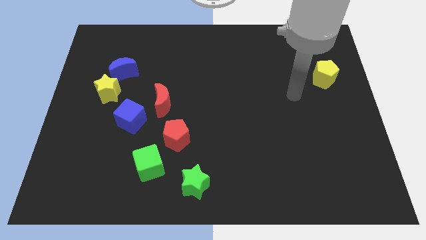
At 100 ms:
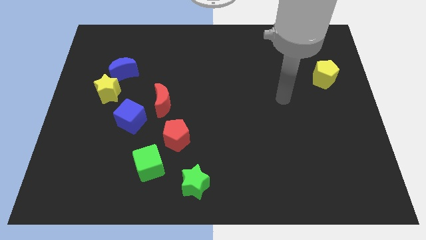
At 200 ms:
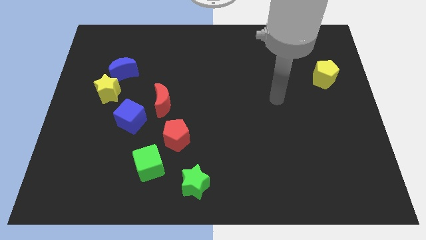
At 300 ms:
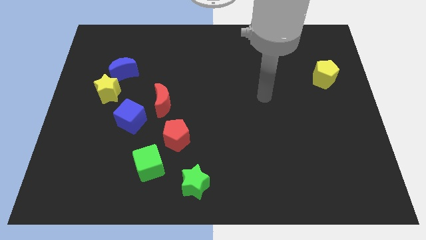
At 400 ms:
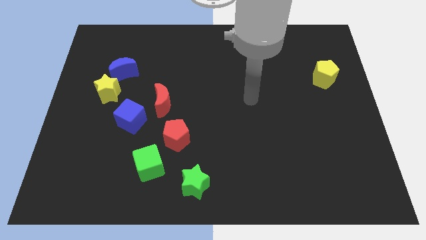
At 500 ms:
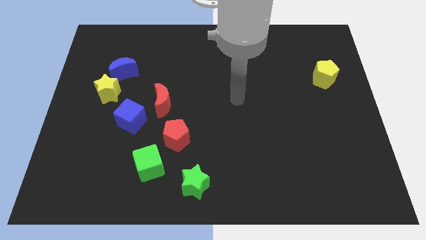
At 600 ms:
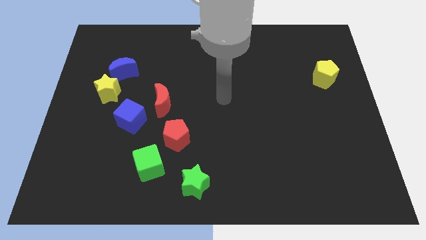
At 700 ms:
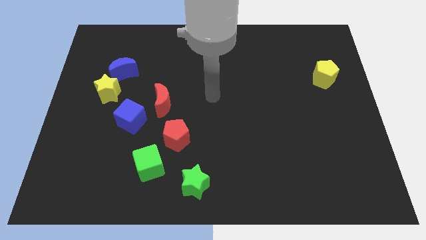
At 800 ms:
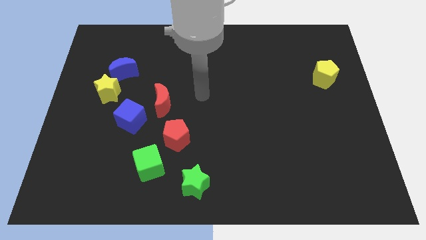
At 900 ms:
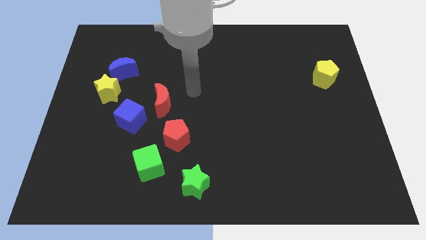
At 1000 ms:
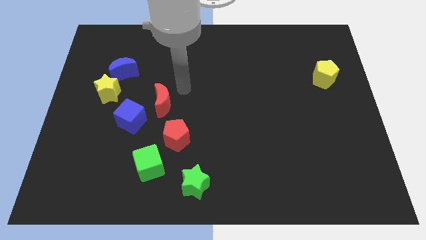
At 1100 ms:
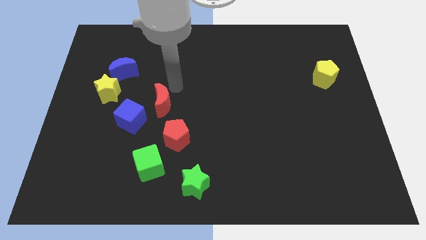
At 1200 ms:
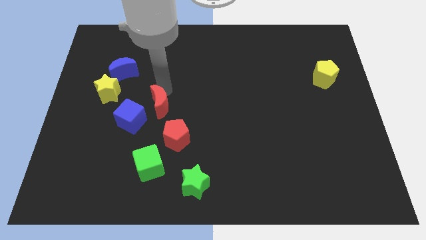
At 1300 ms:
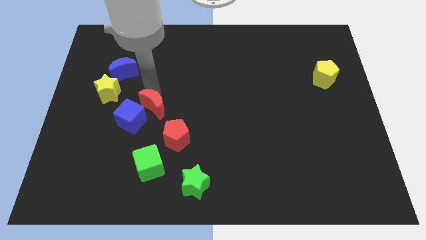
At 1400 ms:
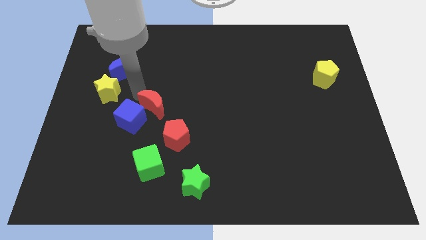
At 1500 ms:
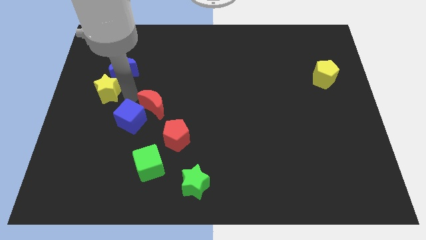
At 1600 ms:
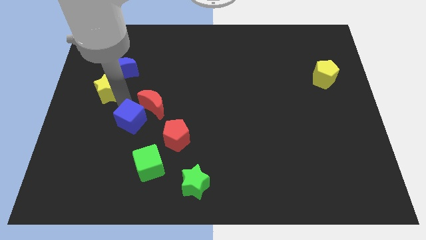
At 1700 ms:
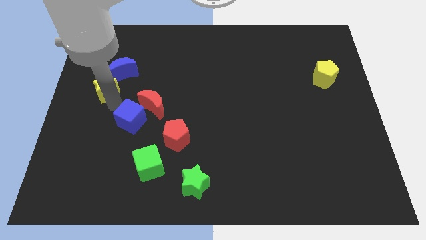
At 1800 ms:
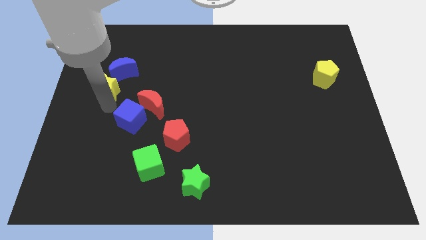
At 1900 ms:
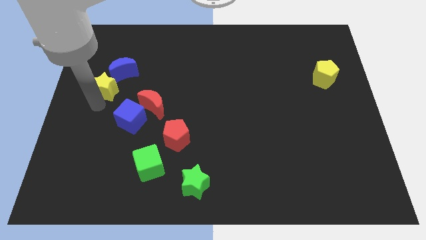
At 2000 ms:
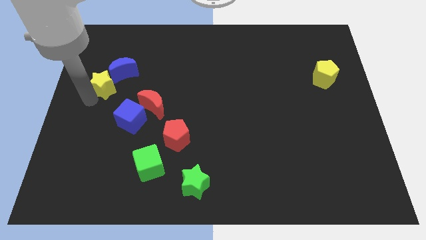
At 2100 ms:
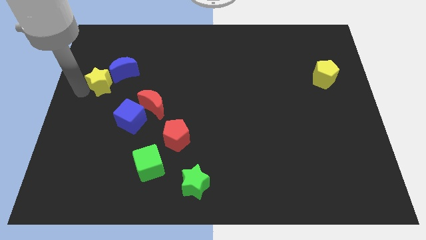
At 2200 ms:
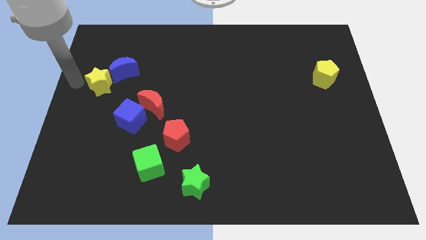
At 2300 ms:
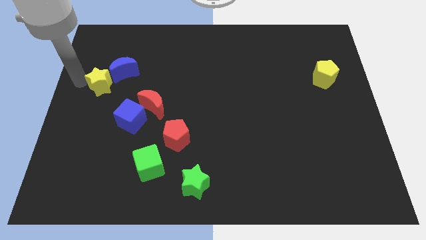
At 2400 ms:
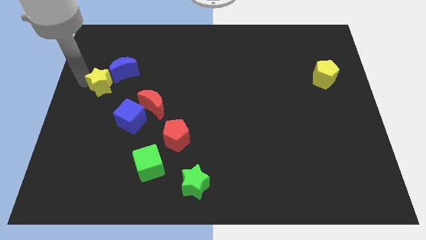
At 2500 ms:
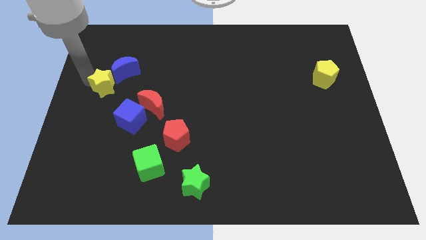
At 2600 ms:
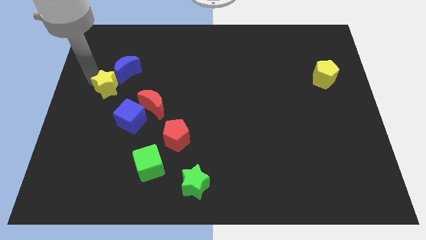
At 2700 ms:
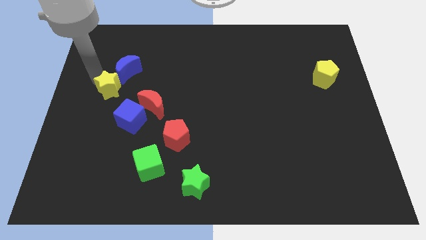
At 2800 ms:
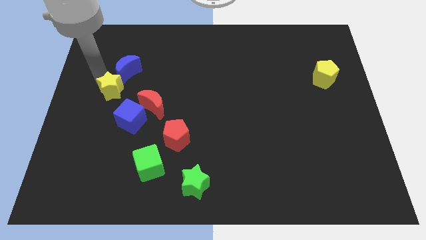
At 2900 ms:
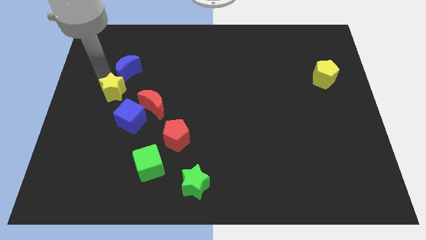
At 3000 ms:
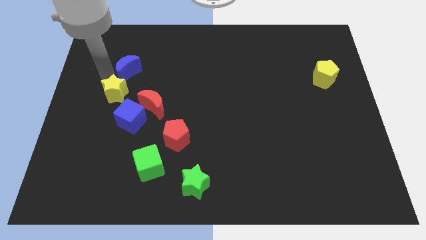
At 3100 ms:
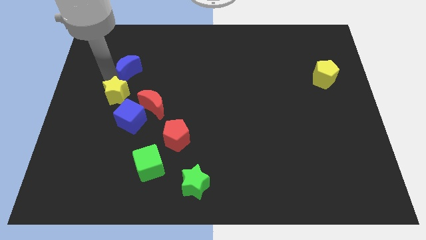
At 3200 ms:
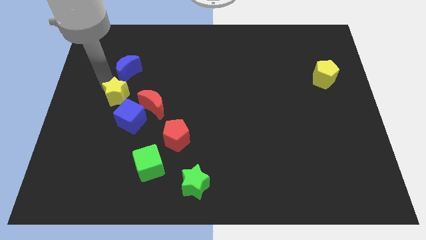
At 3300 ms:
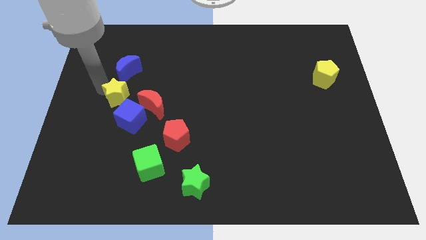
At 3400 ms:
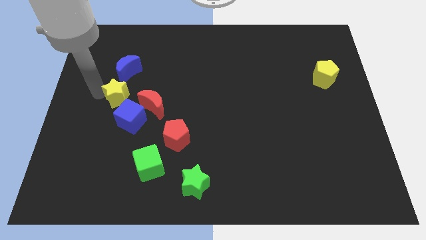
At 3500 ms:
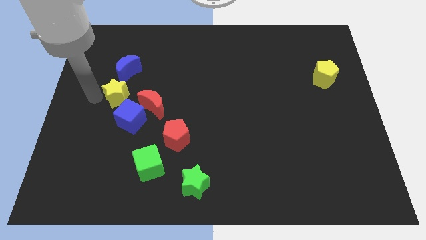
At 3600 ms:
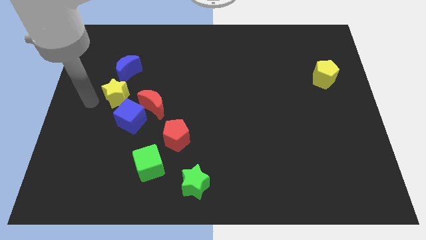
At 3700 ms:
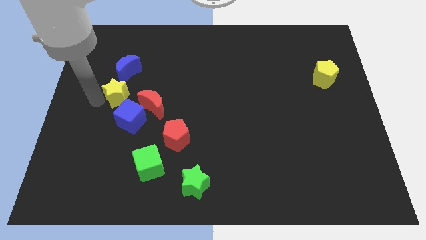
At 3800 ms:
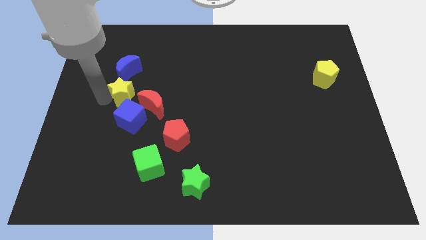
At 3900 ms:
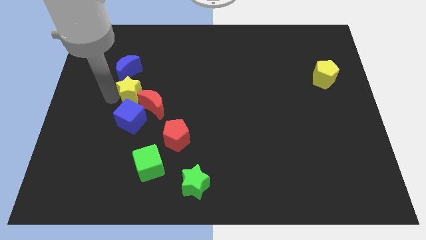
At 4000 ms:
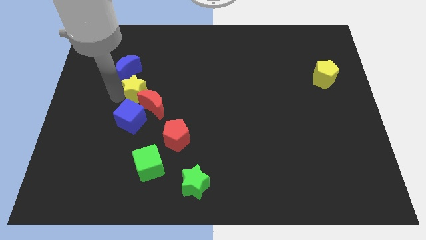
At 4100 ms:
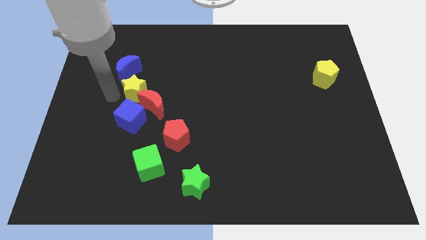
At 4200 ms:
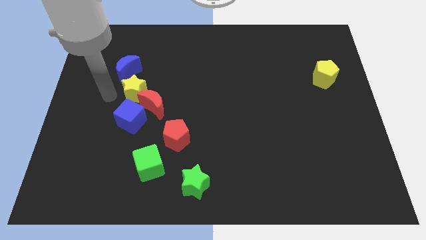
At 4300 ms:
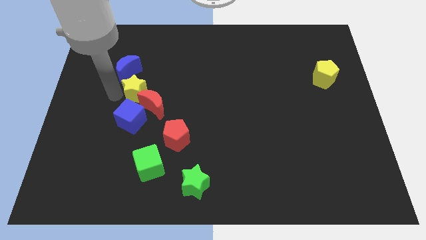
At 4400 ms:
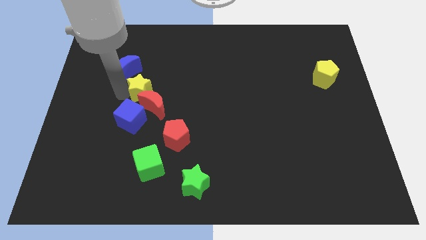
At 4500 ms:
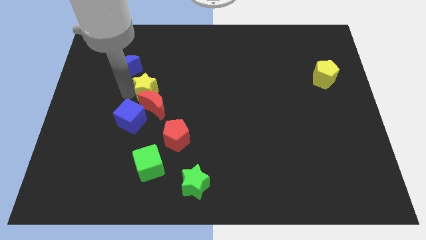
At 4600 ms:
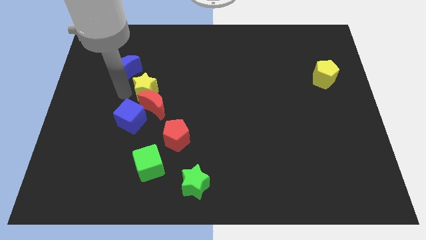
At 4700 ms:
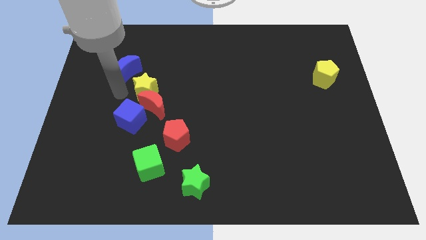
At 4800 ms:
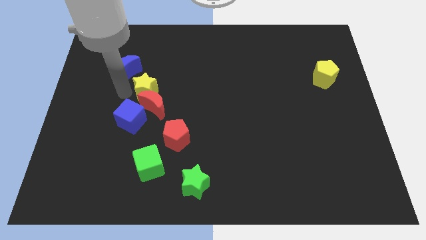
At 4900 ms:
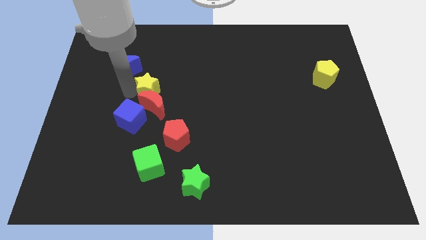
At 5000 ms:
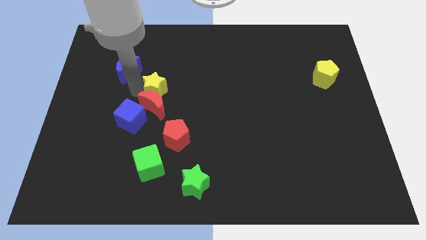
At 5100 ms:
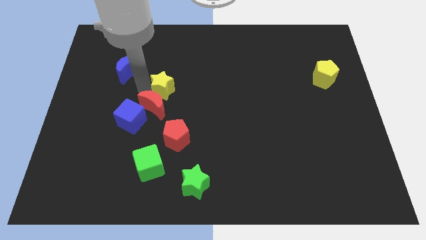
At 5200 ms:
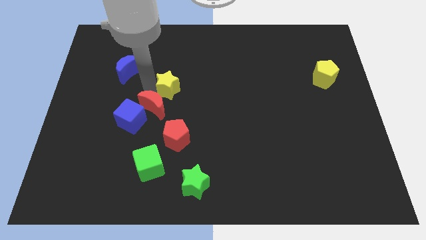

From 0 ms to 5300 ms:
push the yellow star above the red pentagon

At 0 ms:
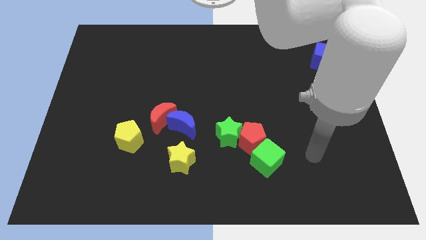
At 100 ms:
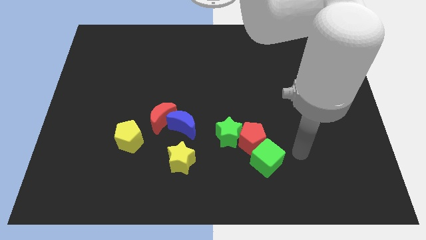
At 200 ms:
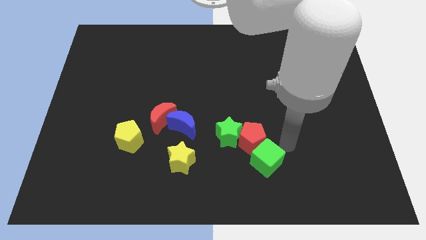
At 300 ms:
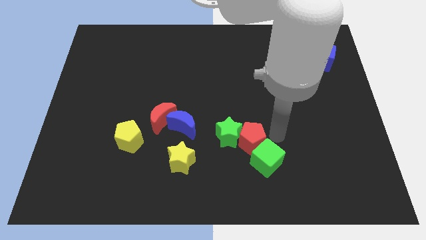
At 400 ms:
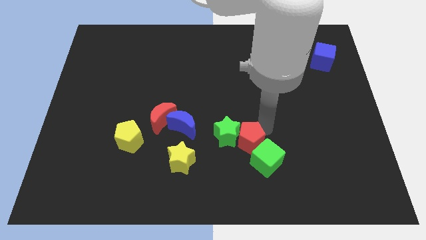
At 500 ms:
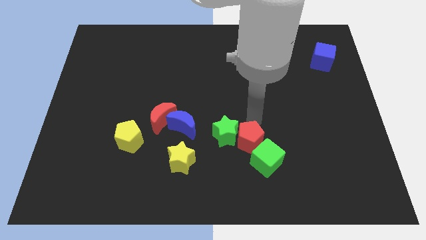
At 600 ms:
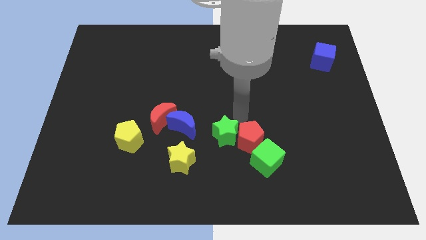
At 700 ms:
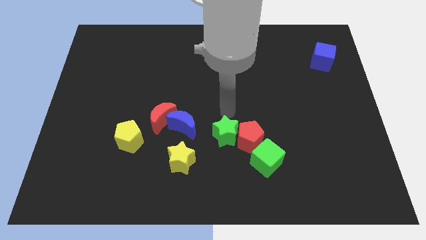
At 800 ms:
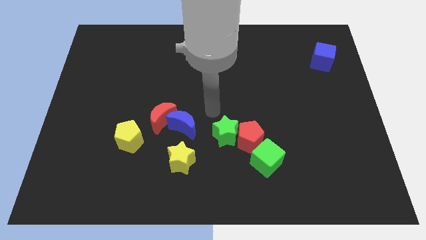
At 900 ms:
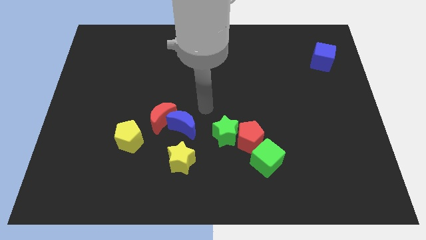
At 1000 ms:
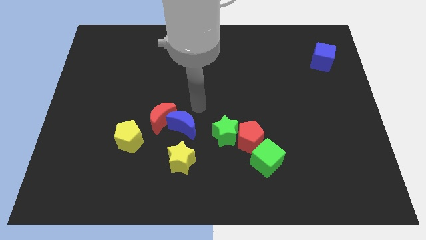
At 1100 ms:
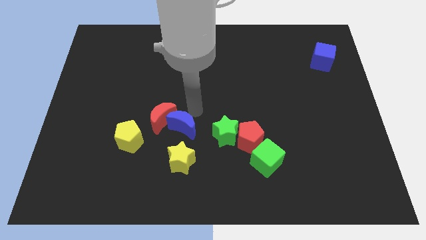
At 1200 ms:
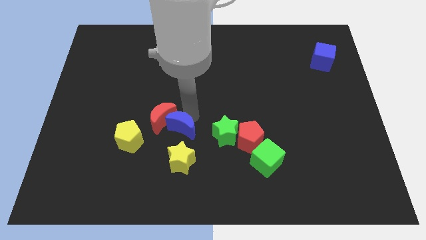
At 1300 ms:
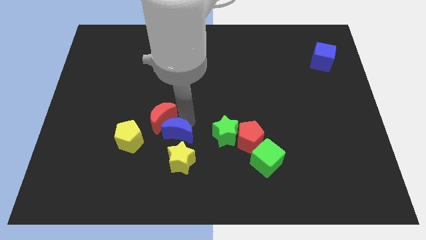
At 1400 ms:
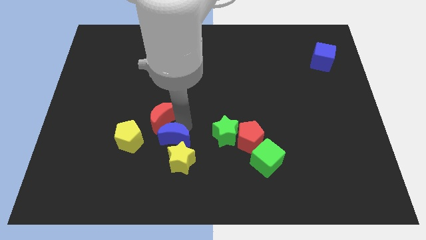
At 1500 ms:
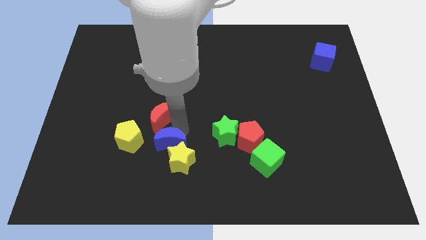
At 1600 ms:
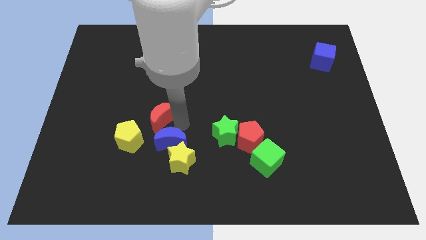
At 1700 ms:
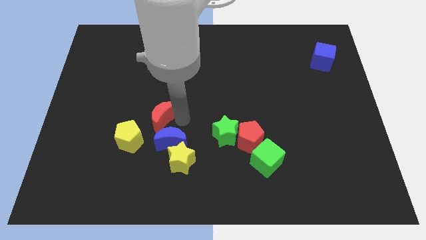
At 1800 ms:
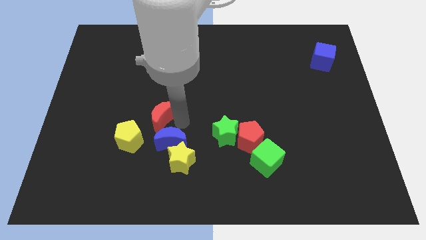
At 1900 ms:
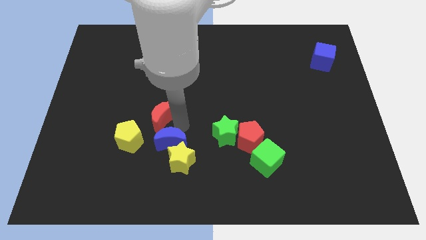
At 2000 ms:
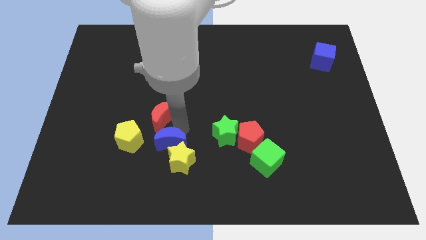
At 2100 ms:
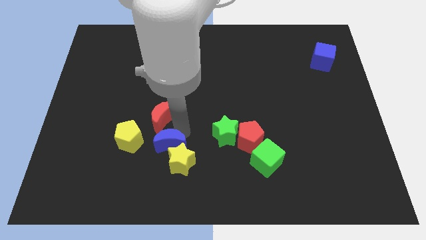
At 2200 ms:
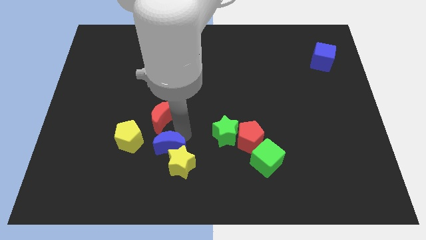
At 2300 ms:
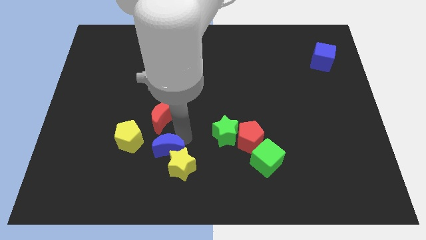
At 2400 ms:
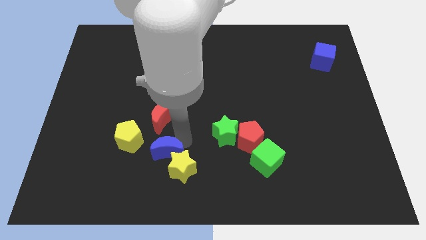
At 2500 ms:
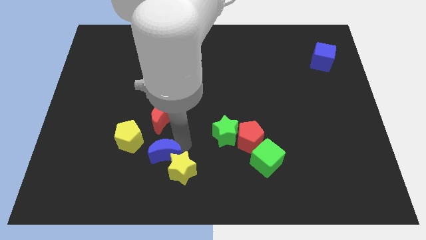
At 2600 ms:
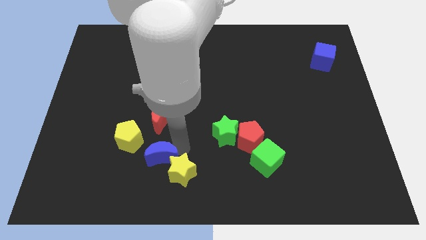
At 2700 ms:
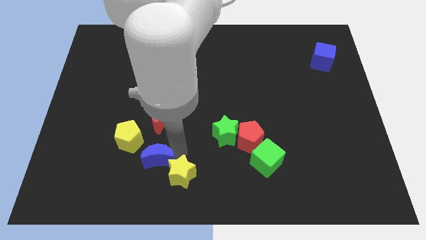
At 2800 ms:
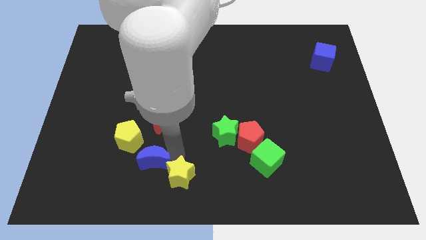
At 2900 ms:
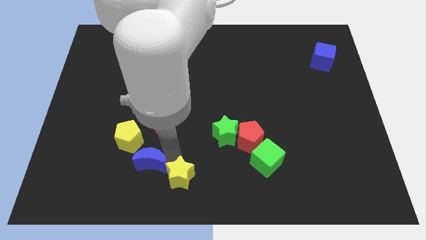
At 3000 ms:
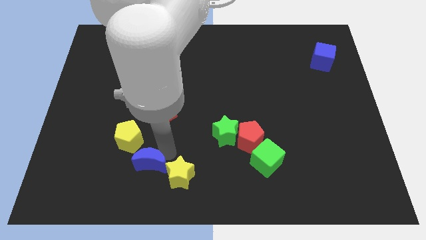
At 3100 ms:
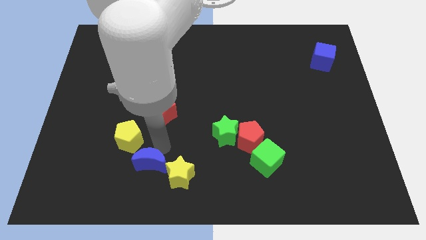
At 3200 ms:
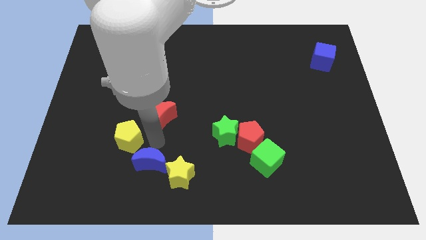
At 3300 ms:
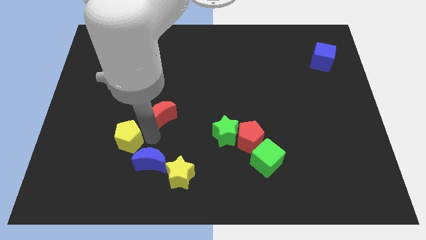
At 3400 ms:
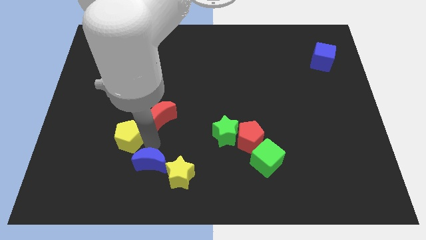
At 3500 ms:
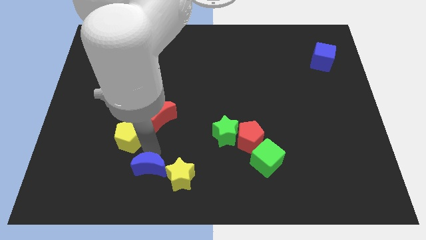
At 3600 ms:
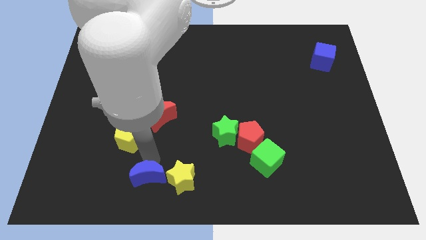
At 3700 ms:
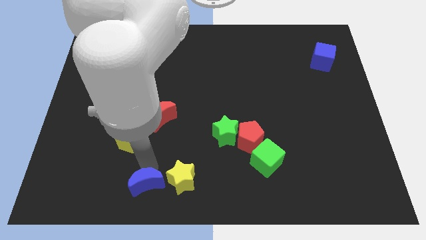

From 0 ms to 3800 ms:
slide the blue moon to the bottom left side of the yellow star
